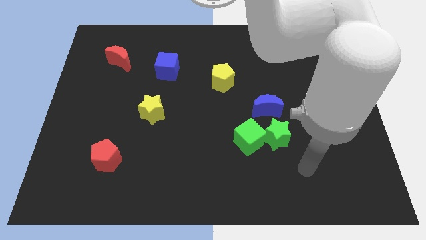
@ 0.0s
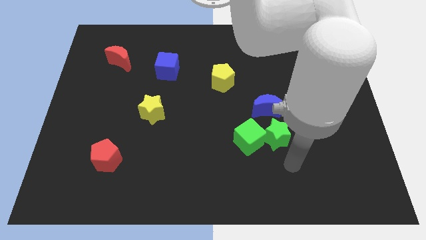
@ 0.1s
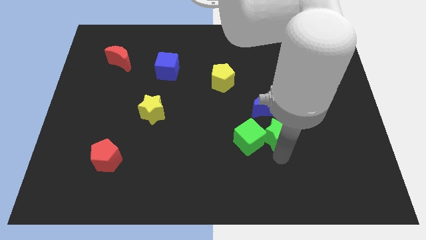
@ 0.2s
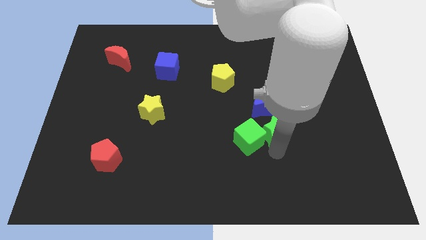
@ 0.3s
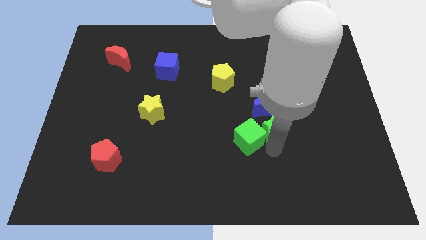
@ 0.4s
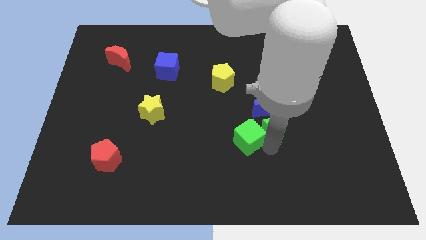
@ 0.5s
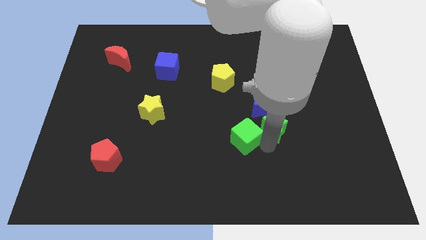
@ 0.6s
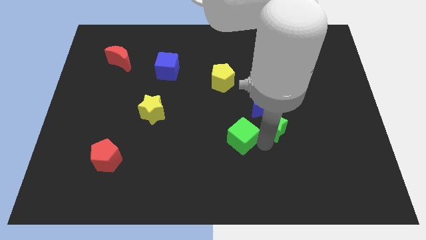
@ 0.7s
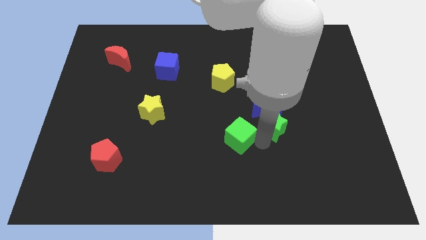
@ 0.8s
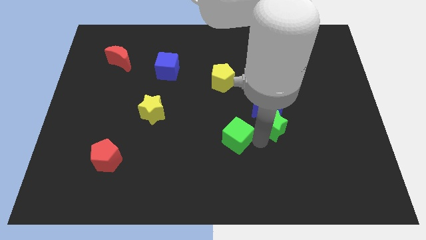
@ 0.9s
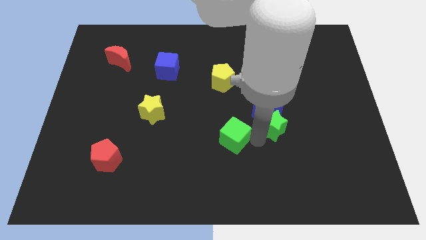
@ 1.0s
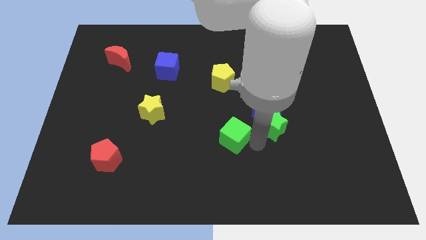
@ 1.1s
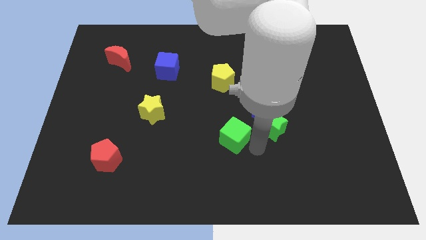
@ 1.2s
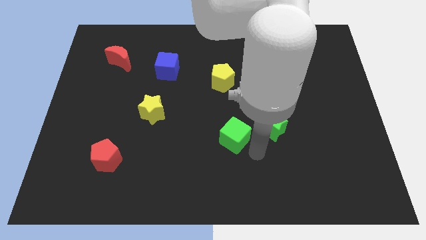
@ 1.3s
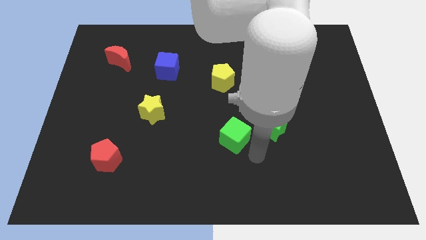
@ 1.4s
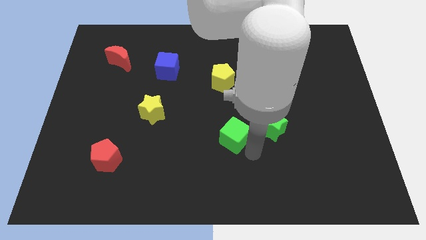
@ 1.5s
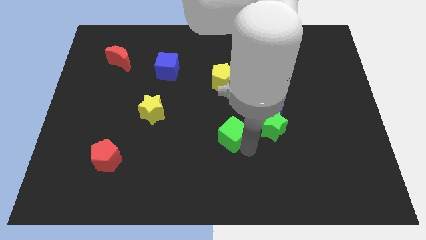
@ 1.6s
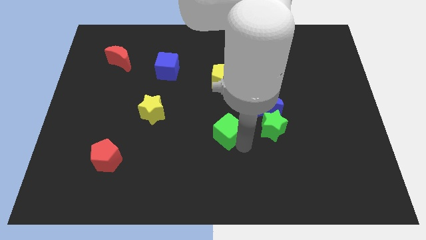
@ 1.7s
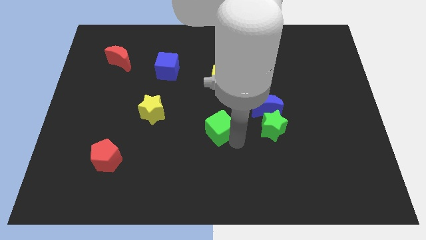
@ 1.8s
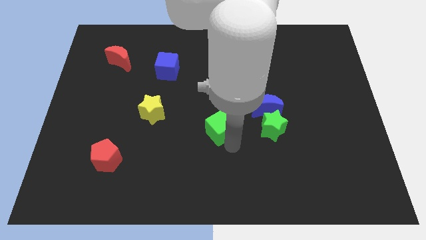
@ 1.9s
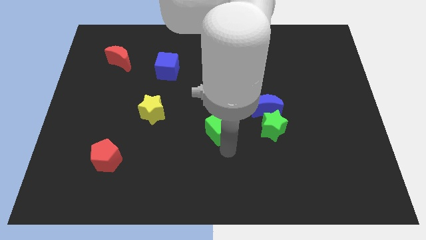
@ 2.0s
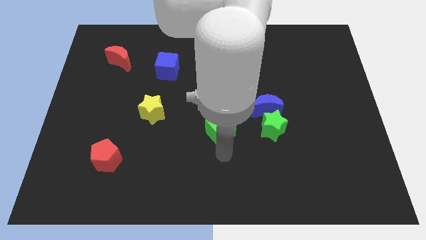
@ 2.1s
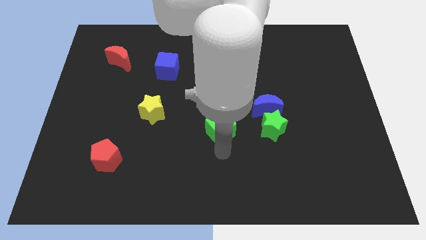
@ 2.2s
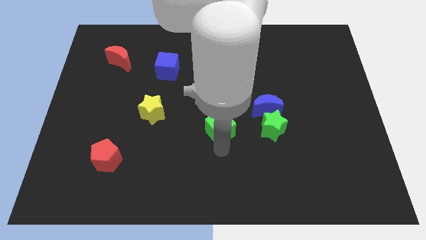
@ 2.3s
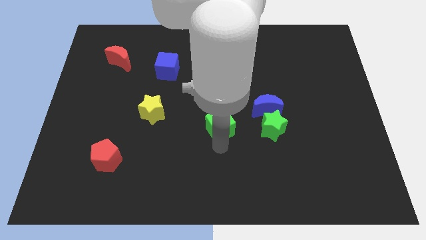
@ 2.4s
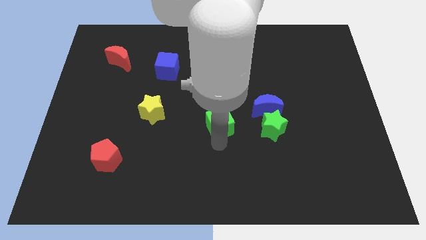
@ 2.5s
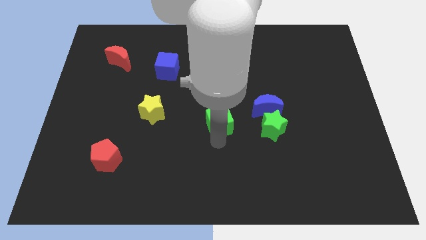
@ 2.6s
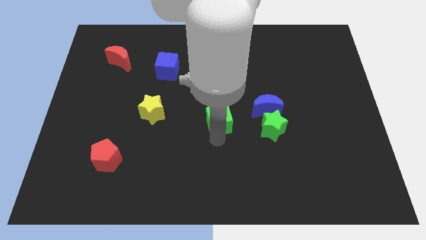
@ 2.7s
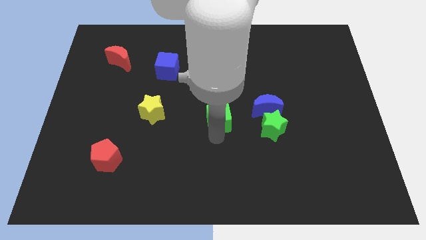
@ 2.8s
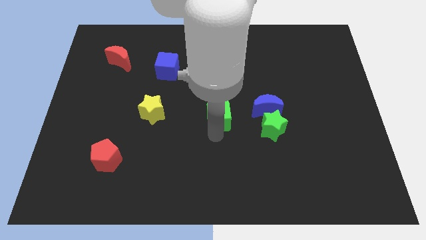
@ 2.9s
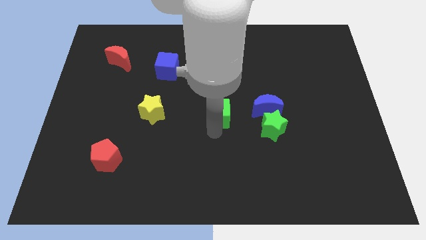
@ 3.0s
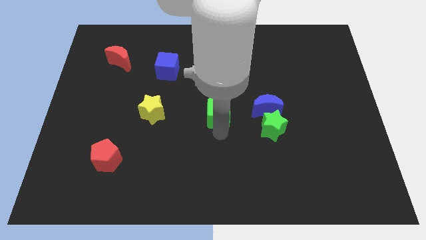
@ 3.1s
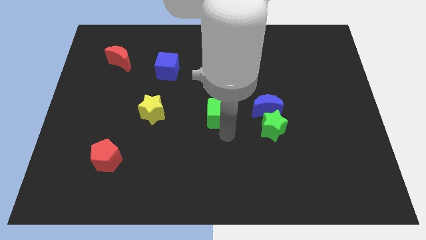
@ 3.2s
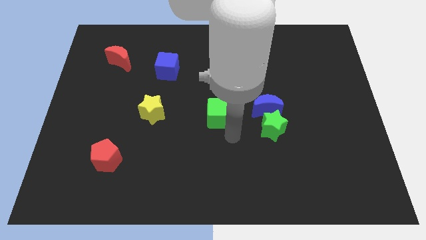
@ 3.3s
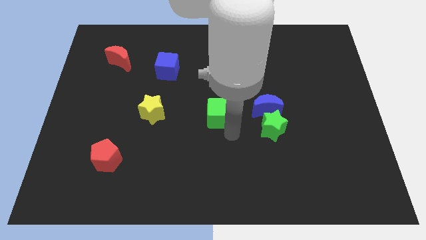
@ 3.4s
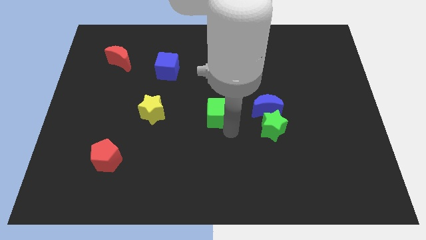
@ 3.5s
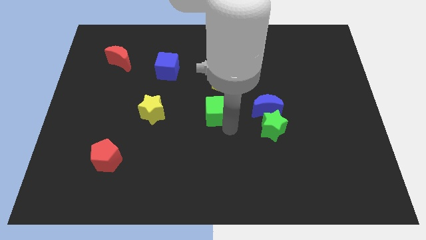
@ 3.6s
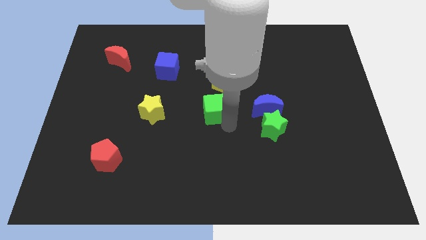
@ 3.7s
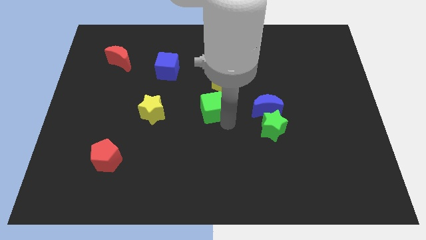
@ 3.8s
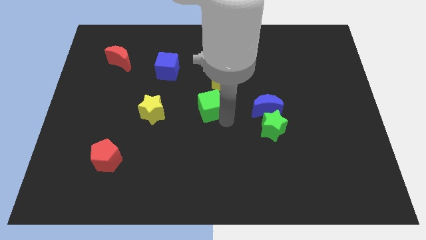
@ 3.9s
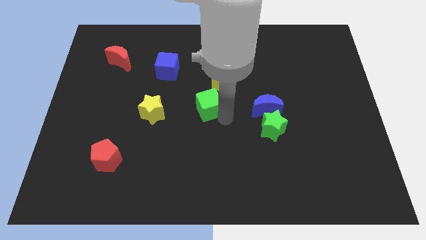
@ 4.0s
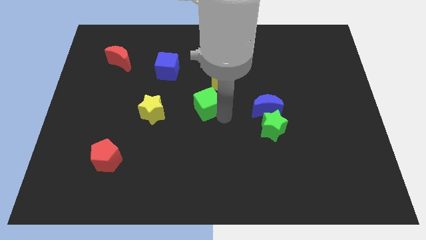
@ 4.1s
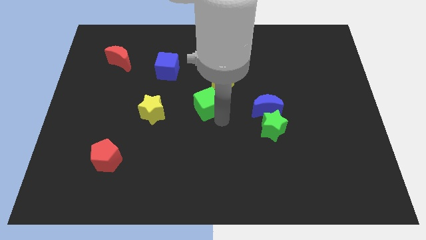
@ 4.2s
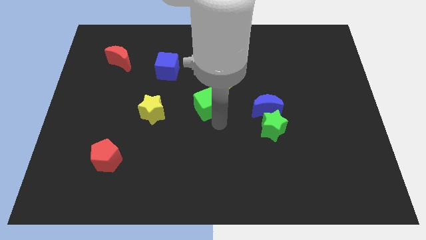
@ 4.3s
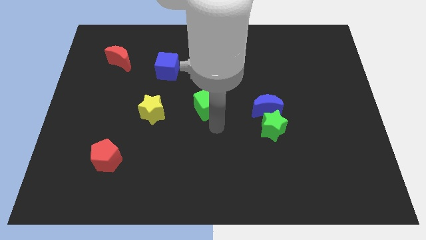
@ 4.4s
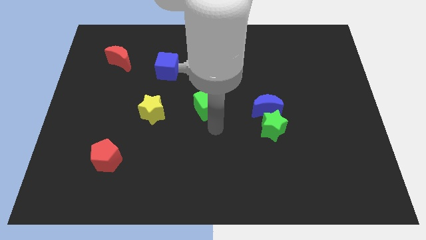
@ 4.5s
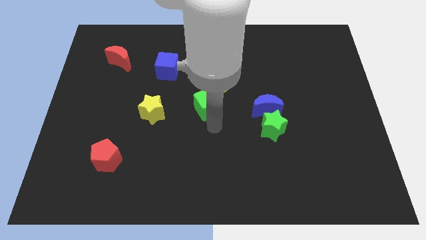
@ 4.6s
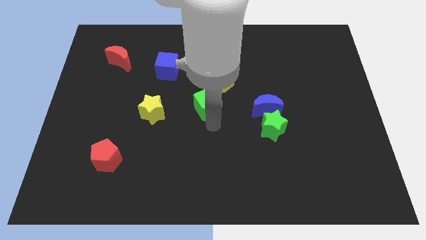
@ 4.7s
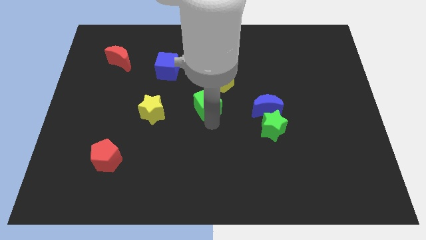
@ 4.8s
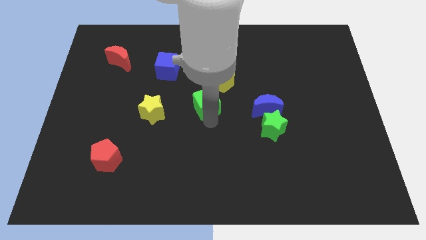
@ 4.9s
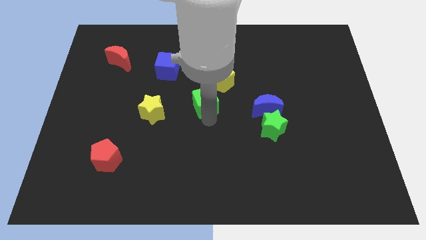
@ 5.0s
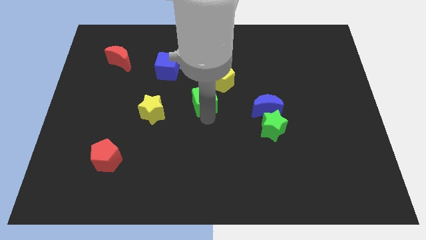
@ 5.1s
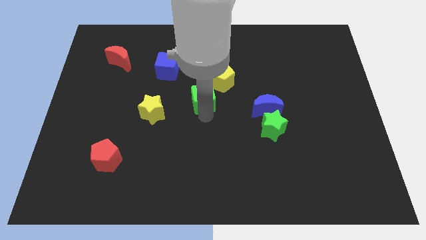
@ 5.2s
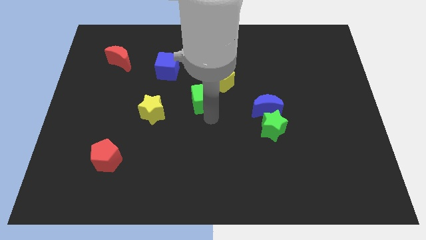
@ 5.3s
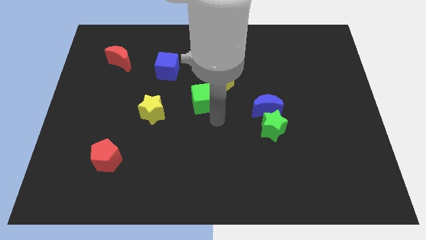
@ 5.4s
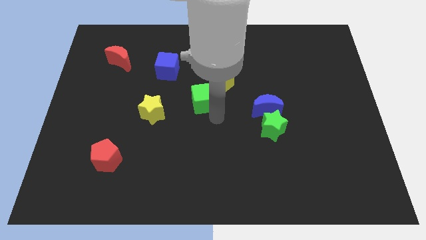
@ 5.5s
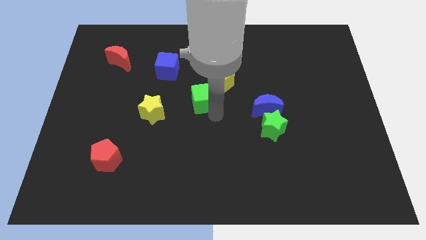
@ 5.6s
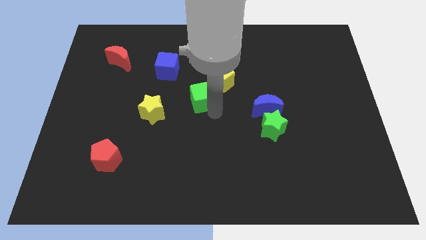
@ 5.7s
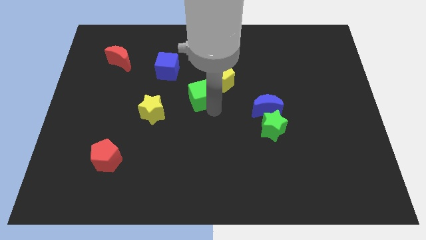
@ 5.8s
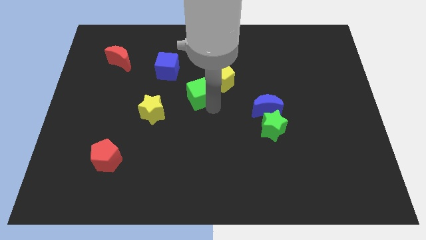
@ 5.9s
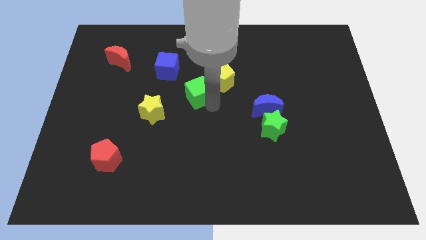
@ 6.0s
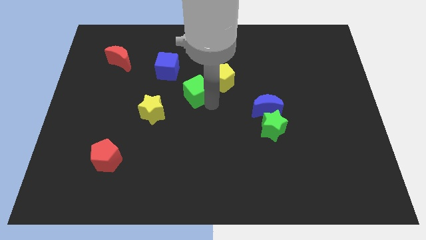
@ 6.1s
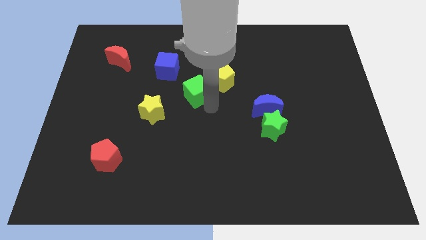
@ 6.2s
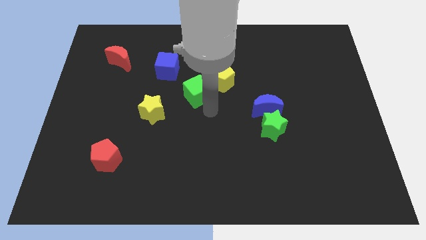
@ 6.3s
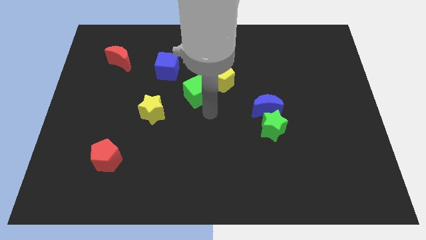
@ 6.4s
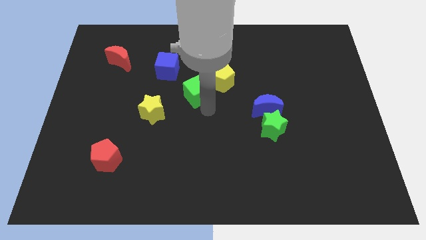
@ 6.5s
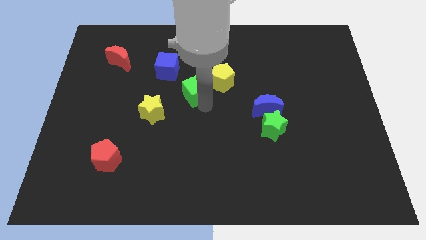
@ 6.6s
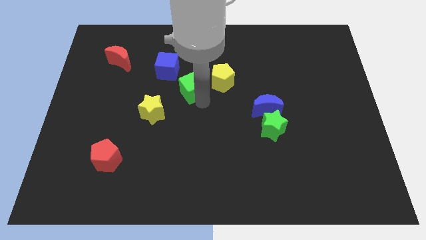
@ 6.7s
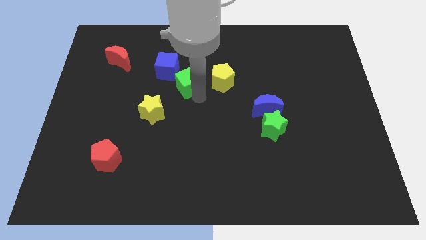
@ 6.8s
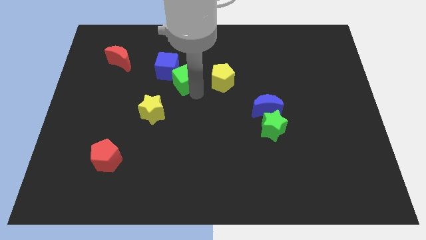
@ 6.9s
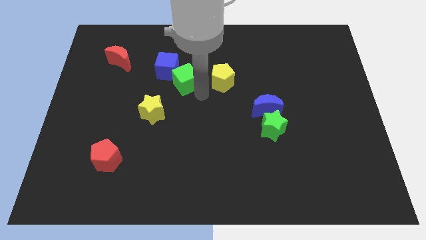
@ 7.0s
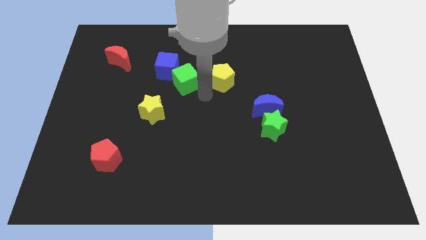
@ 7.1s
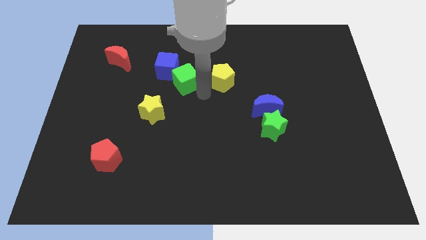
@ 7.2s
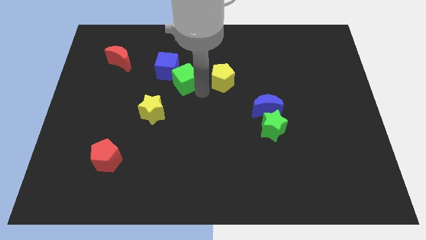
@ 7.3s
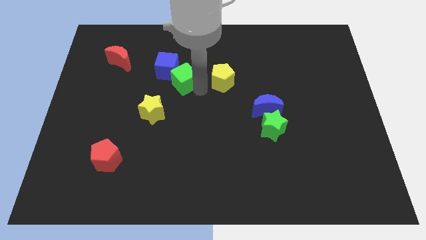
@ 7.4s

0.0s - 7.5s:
put the green cube next to the blue cube
